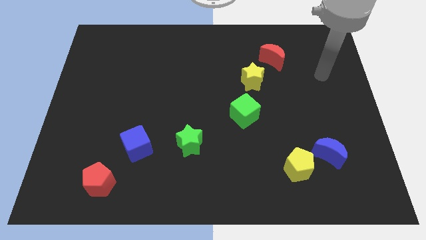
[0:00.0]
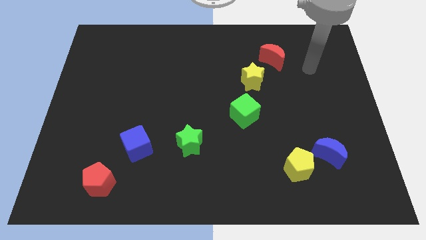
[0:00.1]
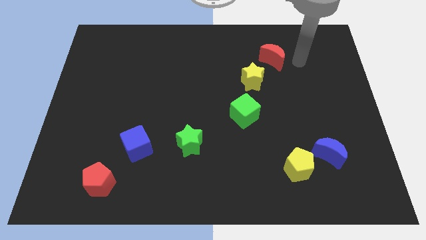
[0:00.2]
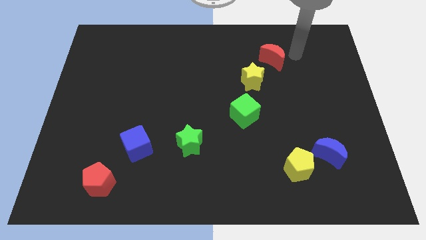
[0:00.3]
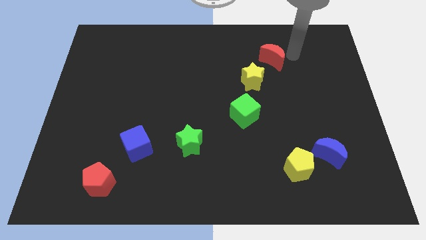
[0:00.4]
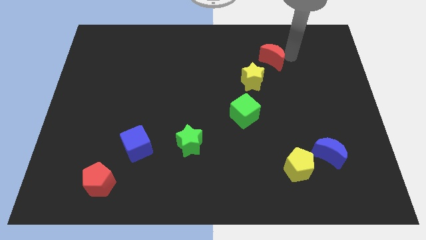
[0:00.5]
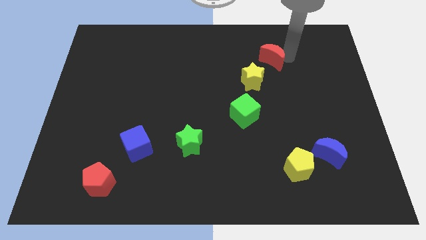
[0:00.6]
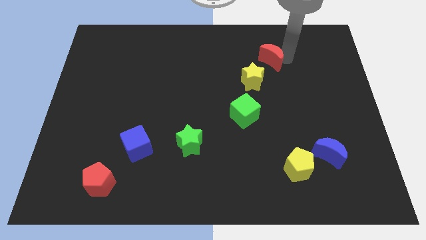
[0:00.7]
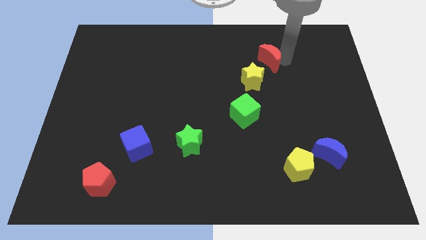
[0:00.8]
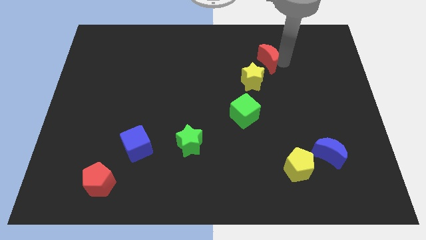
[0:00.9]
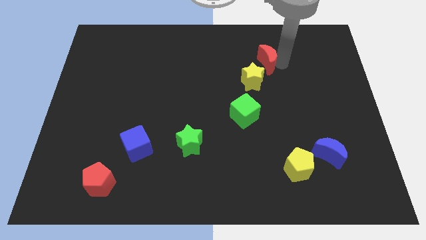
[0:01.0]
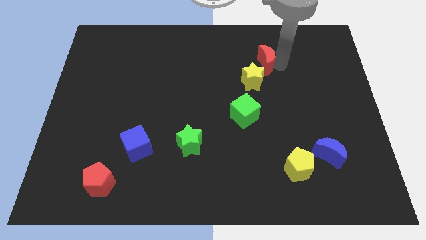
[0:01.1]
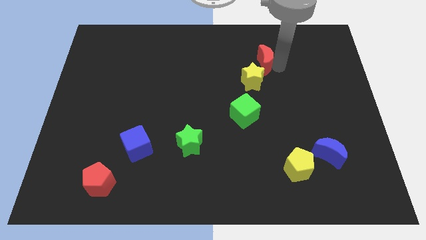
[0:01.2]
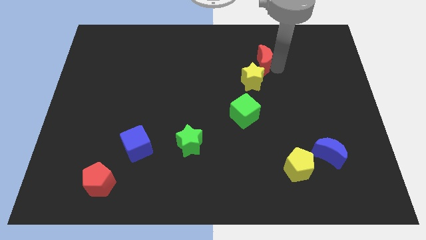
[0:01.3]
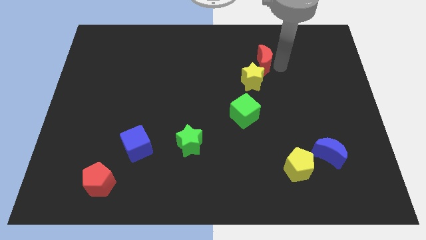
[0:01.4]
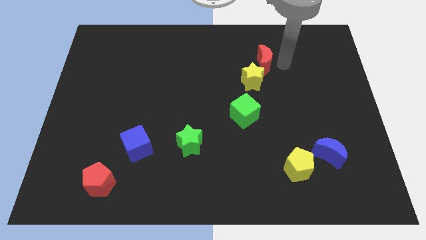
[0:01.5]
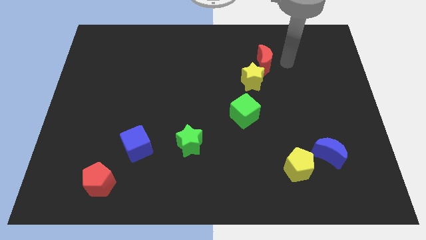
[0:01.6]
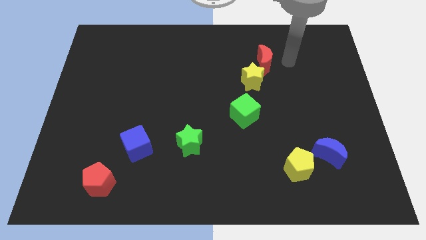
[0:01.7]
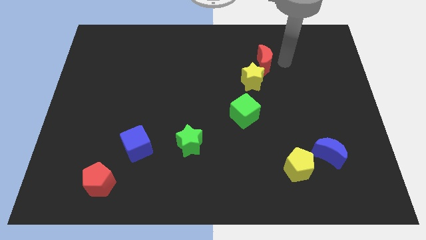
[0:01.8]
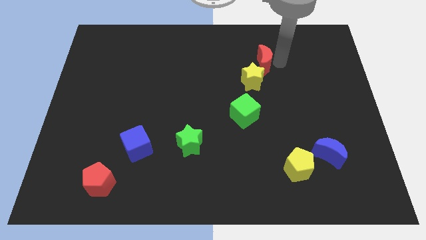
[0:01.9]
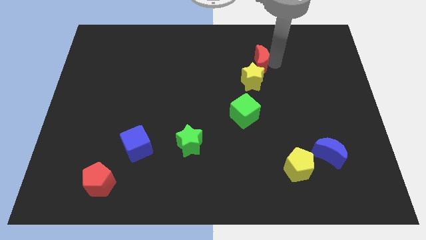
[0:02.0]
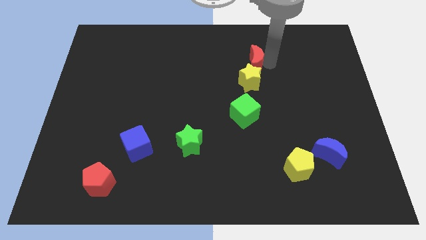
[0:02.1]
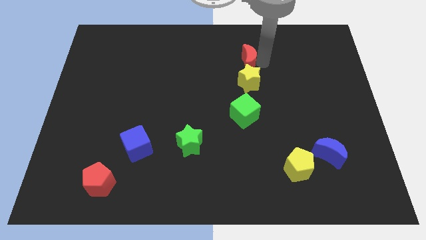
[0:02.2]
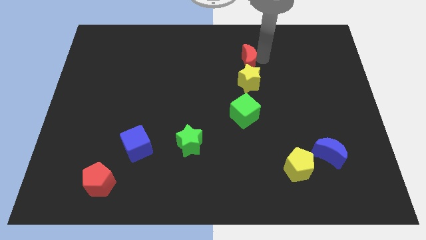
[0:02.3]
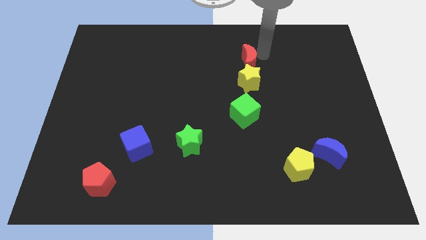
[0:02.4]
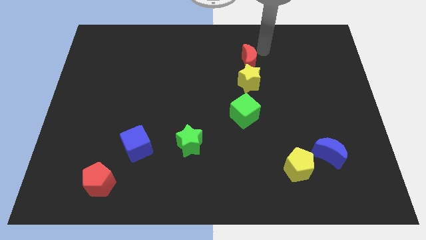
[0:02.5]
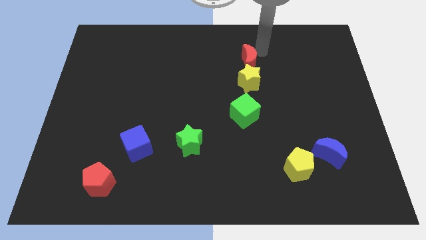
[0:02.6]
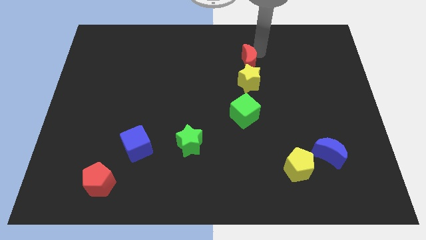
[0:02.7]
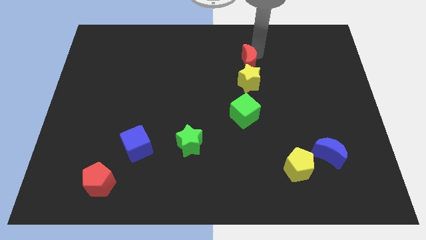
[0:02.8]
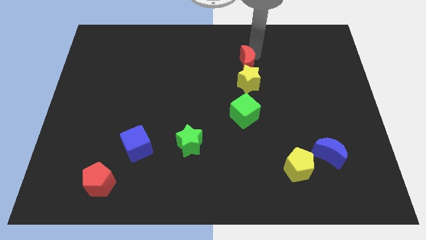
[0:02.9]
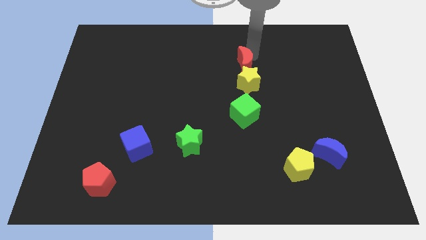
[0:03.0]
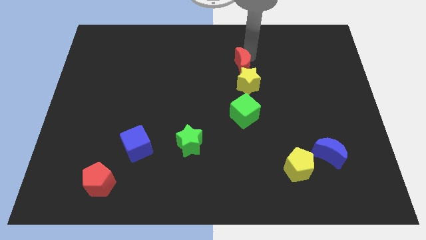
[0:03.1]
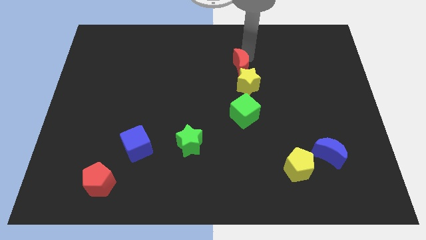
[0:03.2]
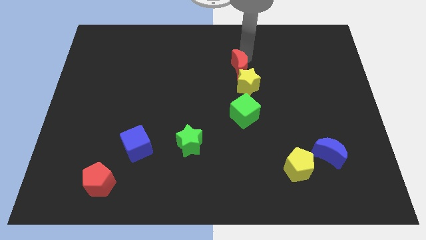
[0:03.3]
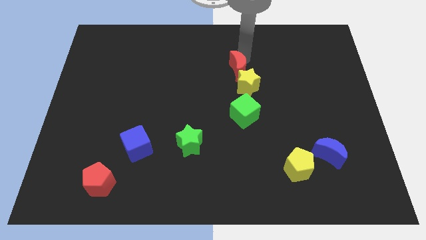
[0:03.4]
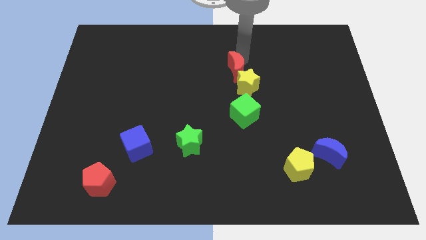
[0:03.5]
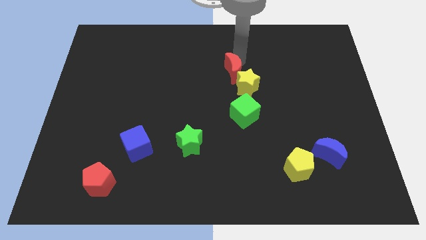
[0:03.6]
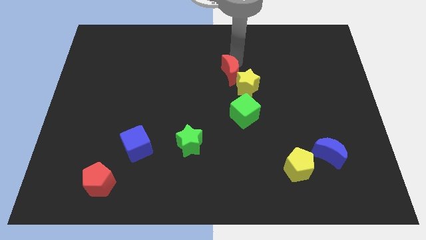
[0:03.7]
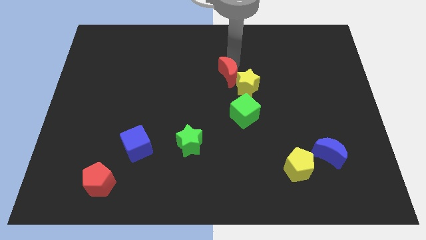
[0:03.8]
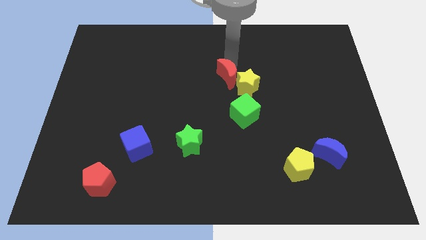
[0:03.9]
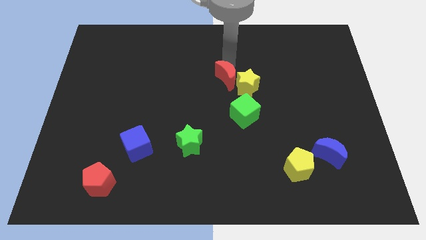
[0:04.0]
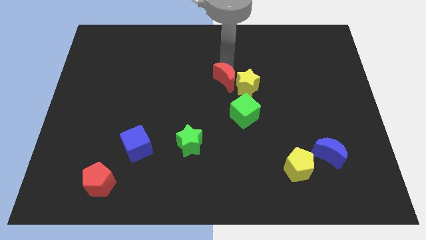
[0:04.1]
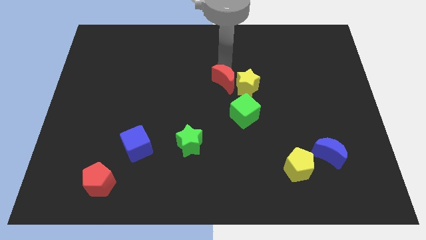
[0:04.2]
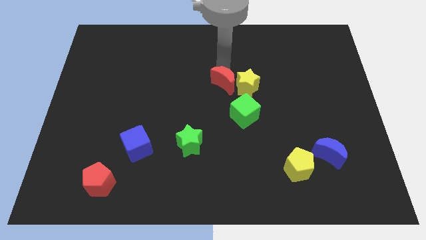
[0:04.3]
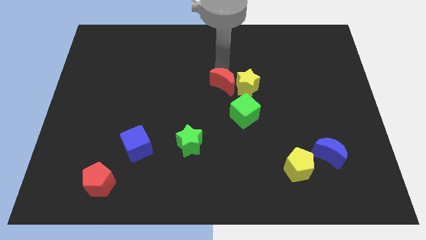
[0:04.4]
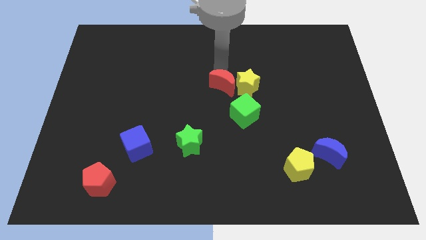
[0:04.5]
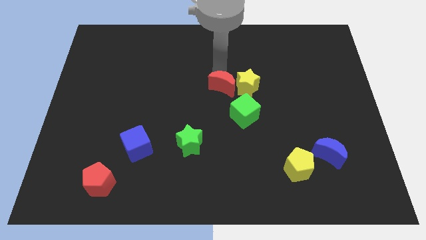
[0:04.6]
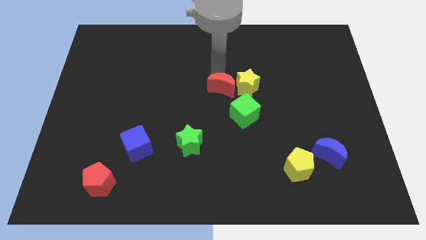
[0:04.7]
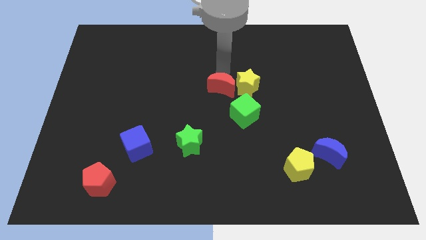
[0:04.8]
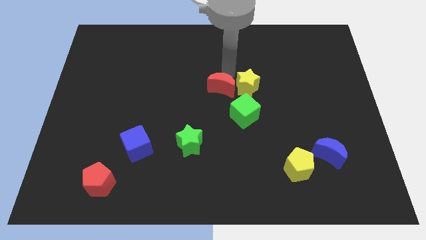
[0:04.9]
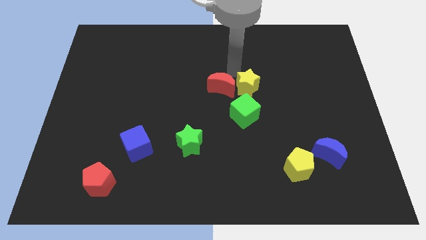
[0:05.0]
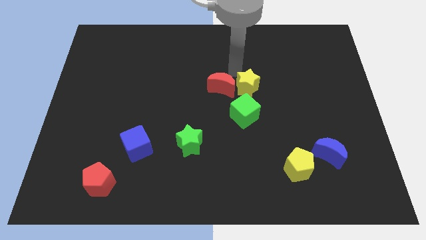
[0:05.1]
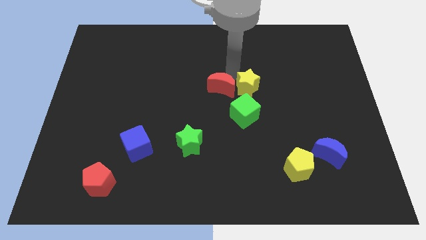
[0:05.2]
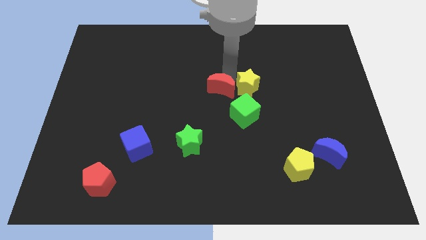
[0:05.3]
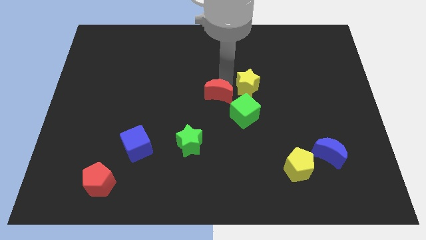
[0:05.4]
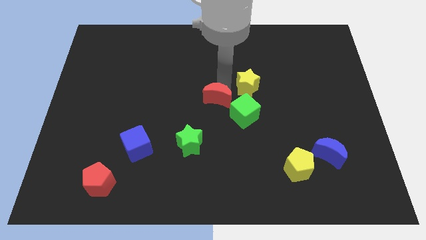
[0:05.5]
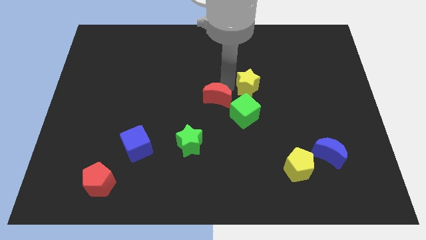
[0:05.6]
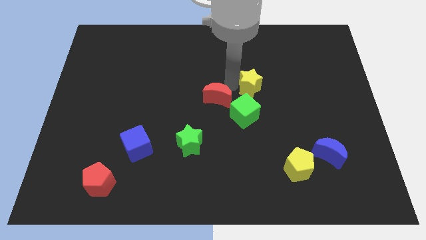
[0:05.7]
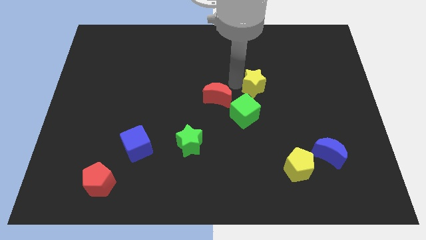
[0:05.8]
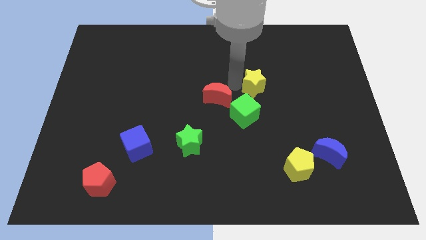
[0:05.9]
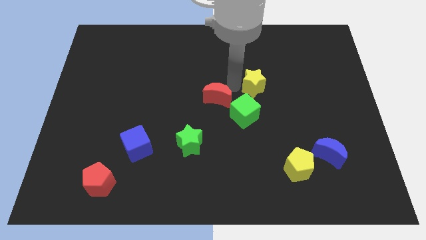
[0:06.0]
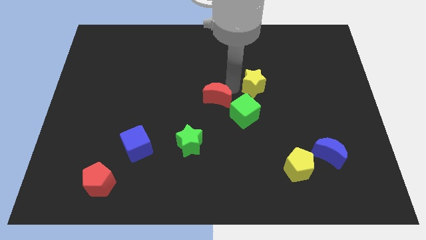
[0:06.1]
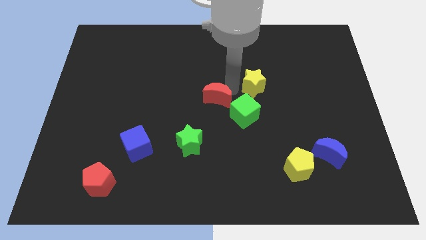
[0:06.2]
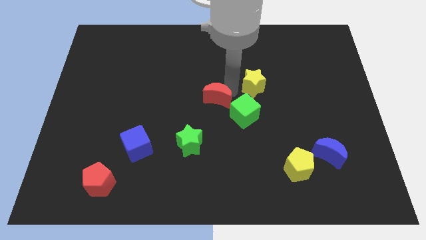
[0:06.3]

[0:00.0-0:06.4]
move the red moon diagonally downwards and left

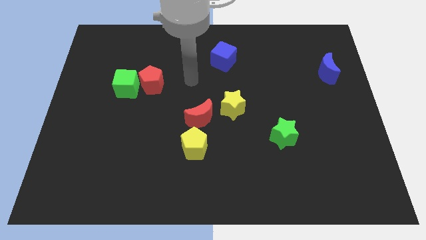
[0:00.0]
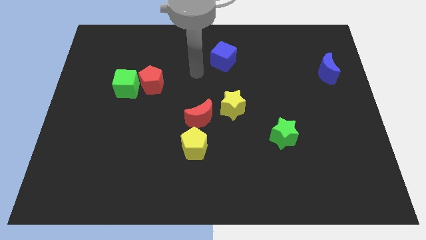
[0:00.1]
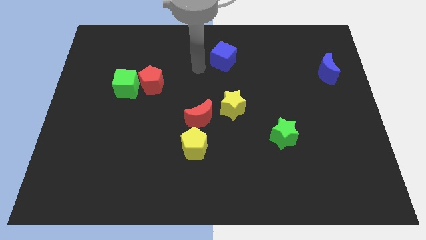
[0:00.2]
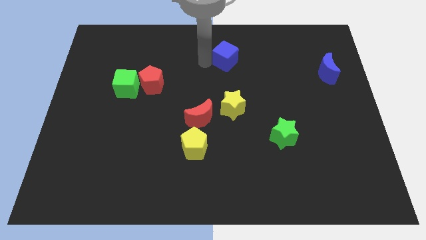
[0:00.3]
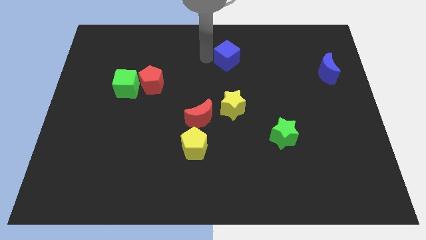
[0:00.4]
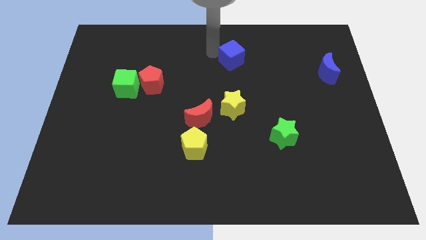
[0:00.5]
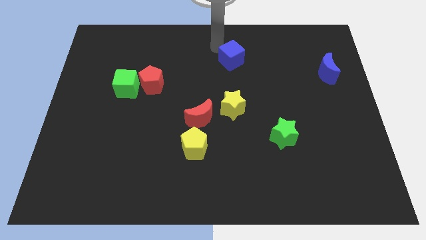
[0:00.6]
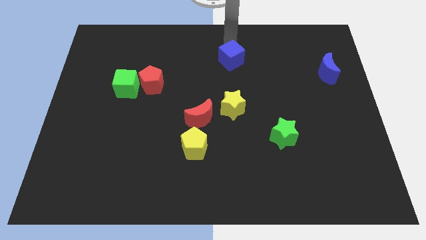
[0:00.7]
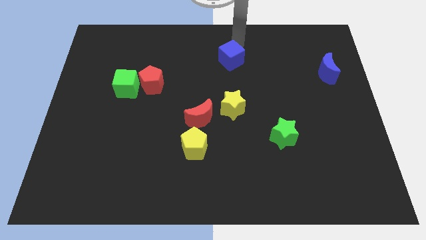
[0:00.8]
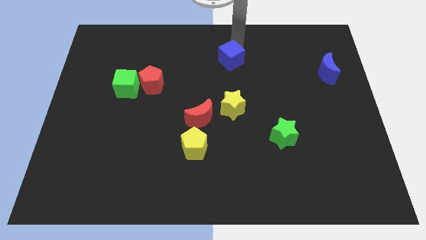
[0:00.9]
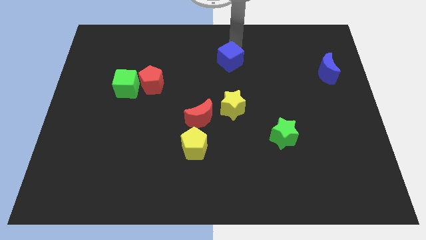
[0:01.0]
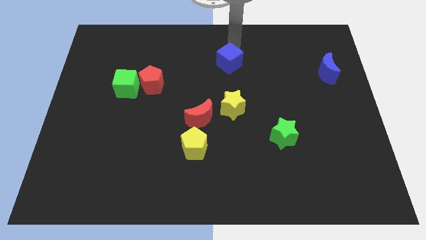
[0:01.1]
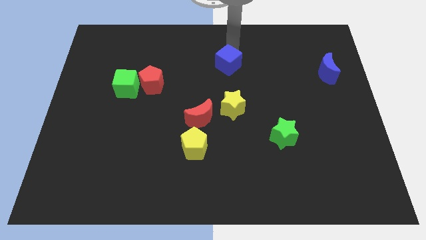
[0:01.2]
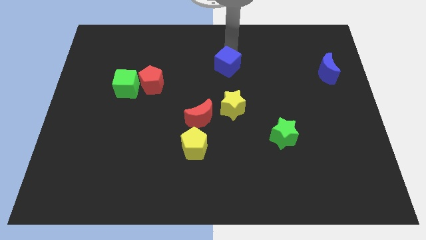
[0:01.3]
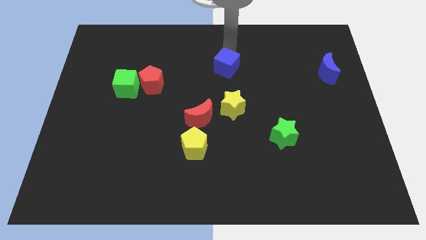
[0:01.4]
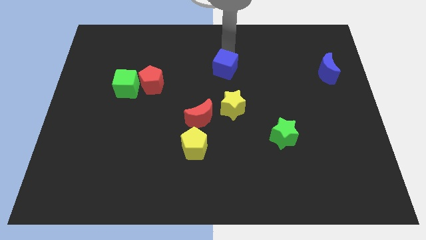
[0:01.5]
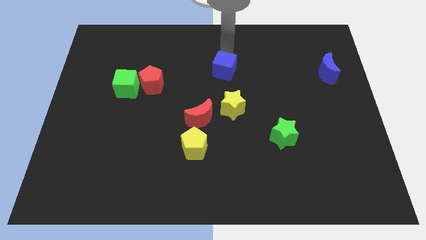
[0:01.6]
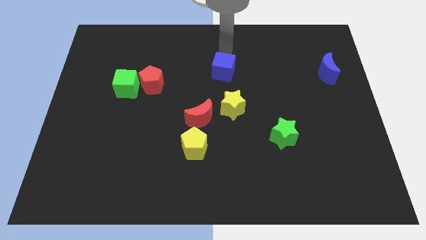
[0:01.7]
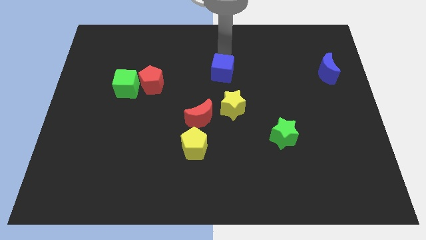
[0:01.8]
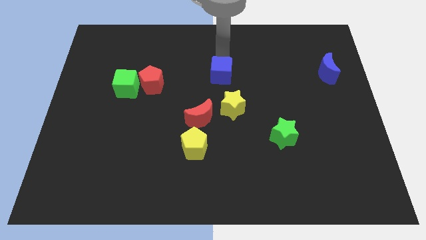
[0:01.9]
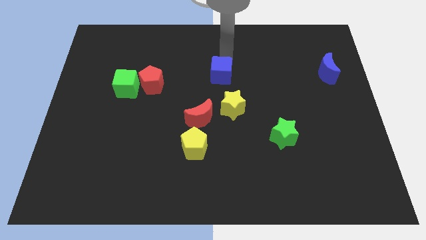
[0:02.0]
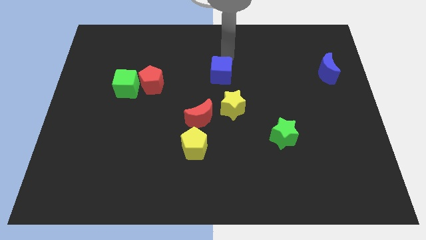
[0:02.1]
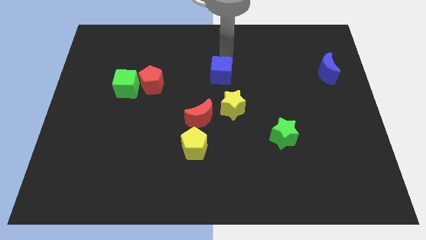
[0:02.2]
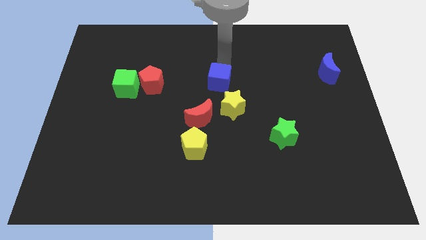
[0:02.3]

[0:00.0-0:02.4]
slightly push the blue cube downwards
